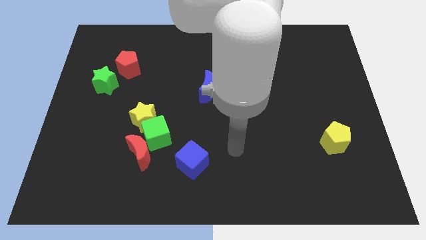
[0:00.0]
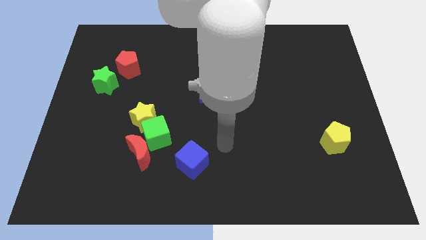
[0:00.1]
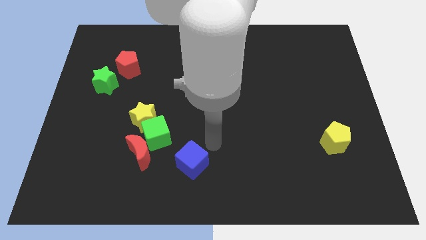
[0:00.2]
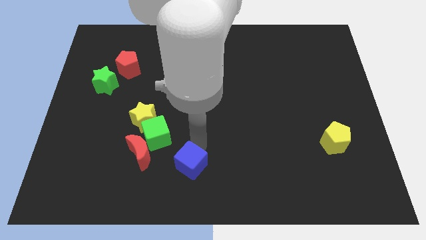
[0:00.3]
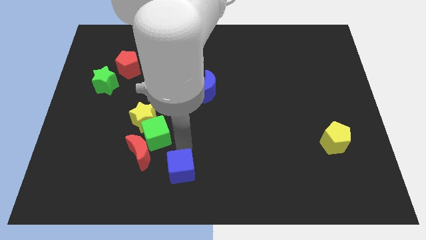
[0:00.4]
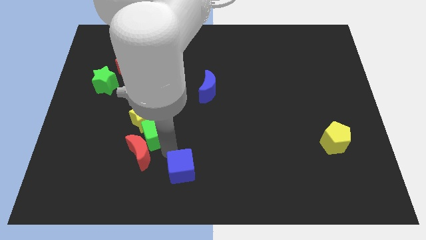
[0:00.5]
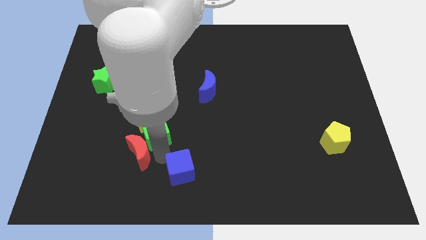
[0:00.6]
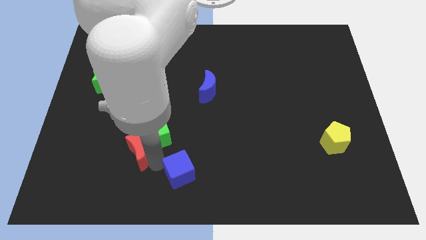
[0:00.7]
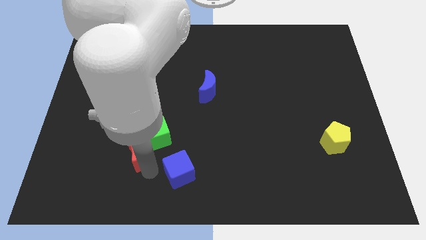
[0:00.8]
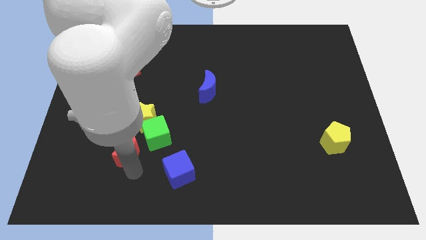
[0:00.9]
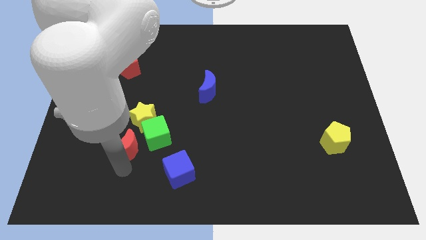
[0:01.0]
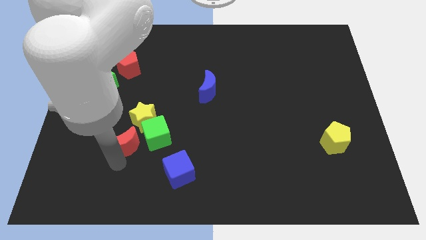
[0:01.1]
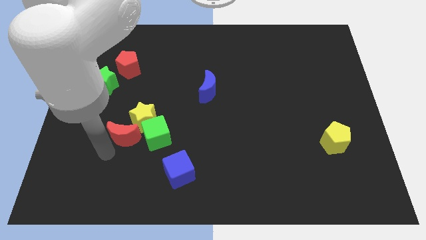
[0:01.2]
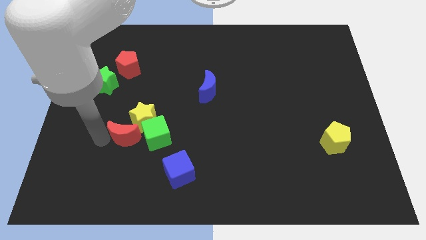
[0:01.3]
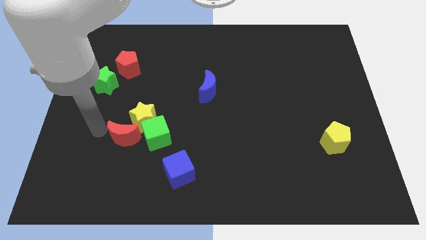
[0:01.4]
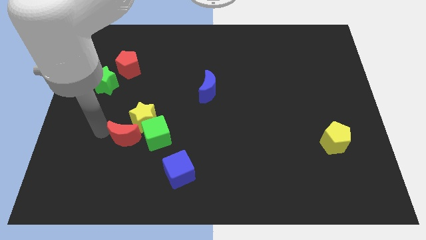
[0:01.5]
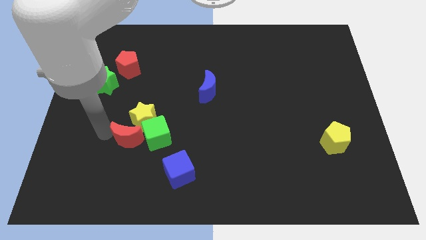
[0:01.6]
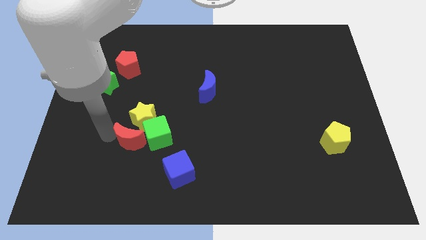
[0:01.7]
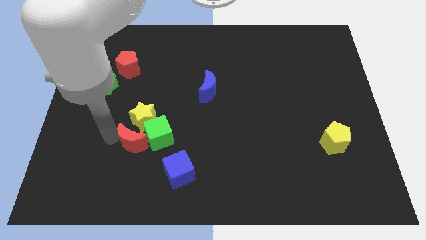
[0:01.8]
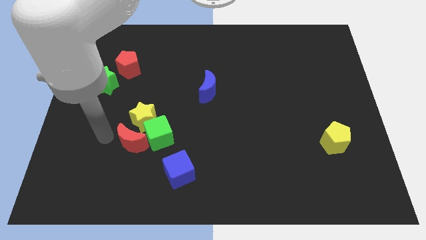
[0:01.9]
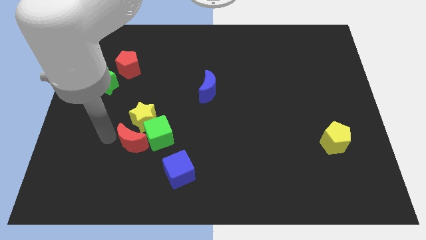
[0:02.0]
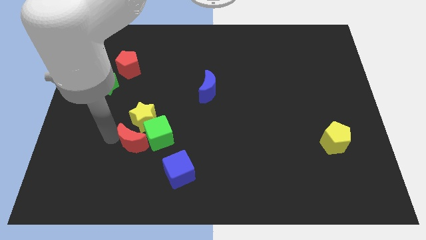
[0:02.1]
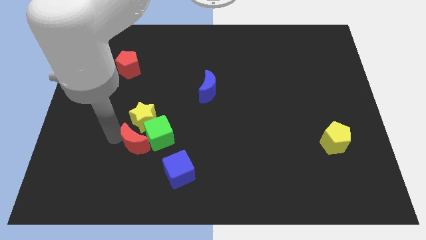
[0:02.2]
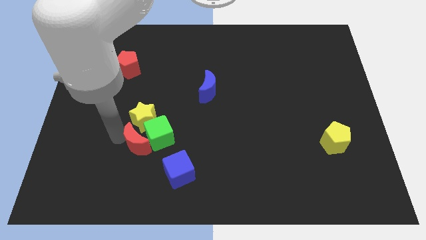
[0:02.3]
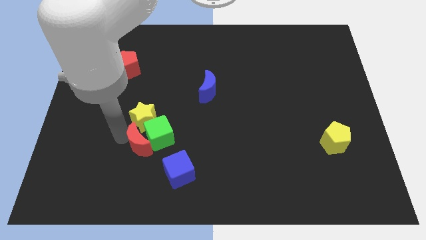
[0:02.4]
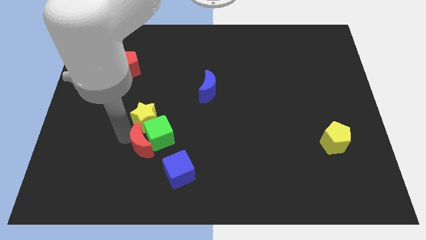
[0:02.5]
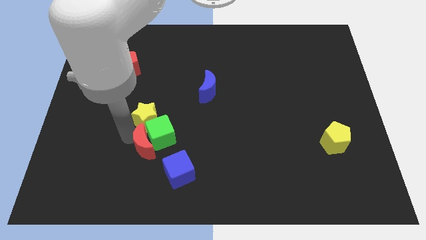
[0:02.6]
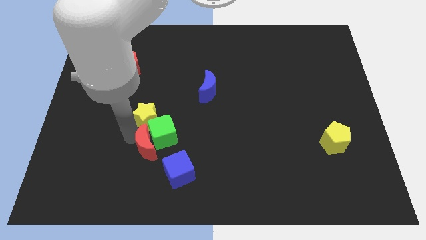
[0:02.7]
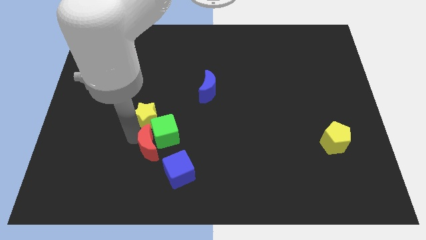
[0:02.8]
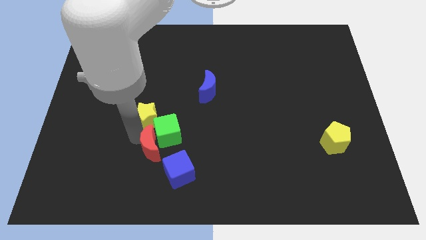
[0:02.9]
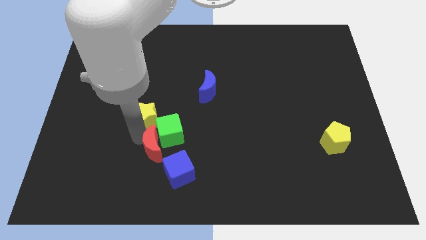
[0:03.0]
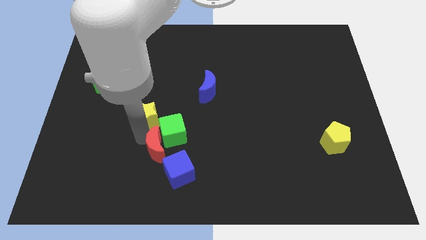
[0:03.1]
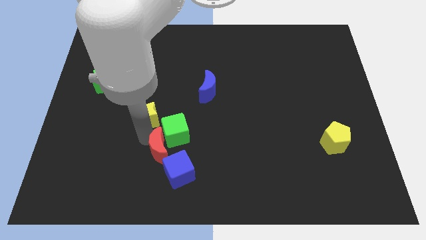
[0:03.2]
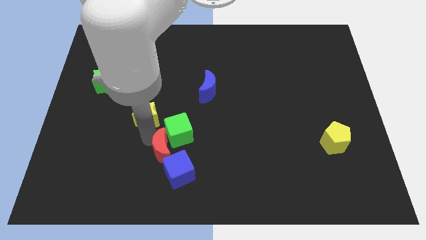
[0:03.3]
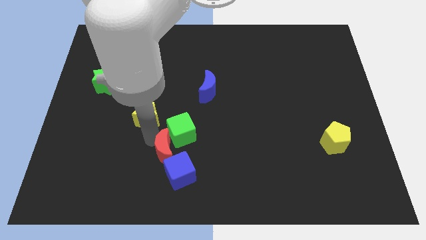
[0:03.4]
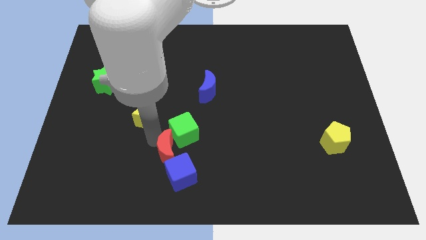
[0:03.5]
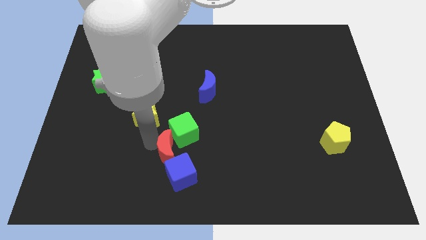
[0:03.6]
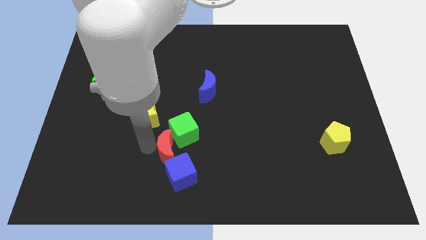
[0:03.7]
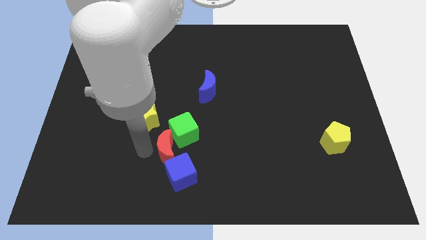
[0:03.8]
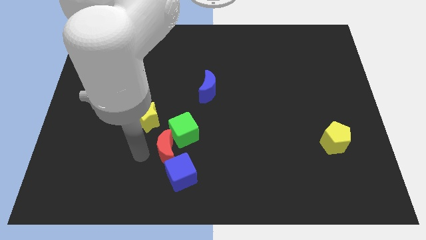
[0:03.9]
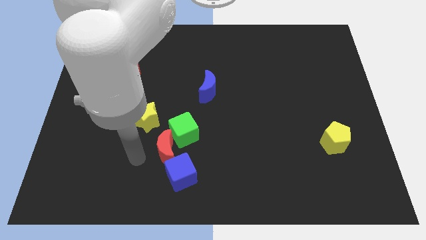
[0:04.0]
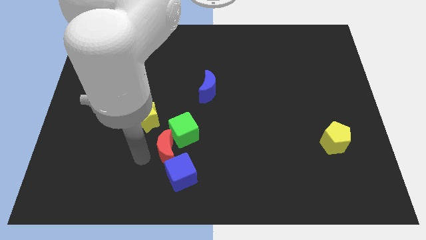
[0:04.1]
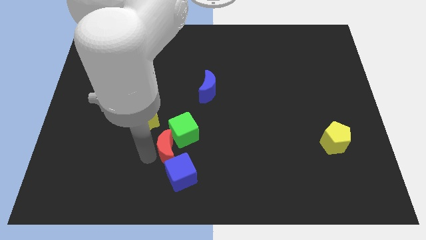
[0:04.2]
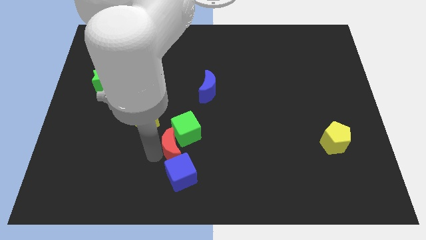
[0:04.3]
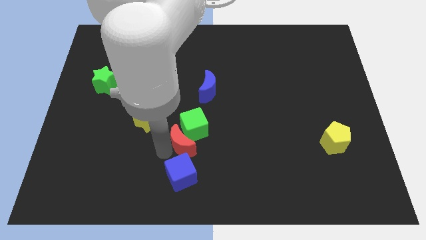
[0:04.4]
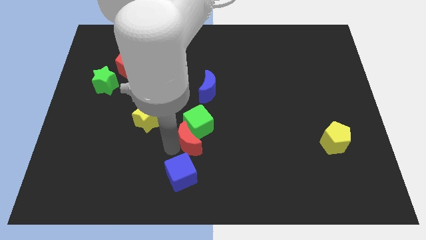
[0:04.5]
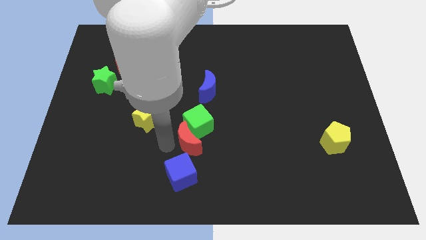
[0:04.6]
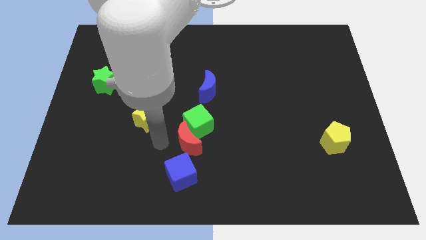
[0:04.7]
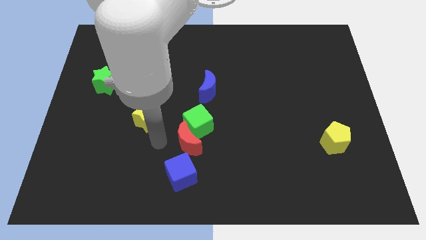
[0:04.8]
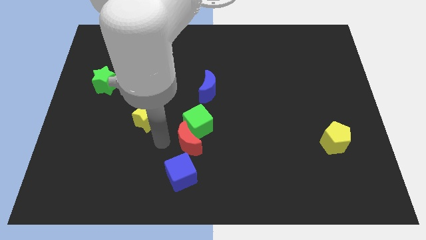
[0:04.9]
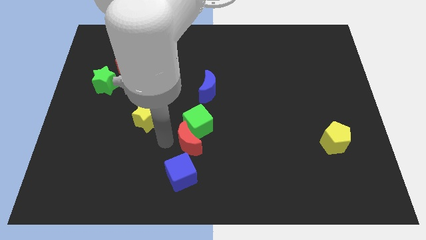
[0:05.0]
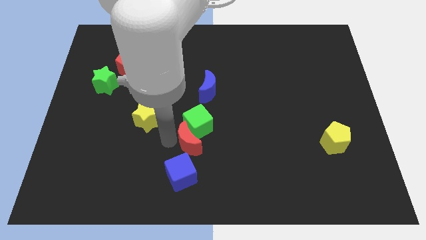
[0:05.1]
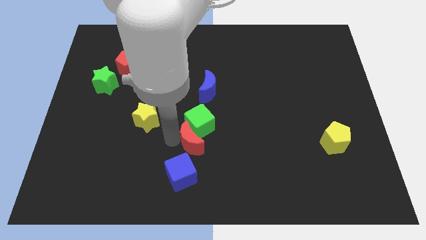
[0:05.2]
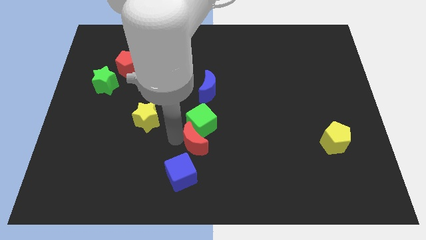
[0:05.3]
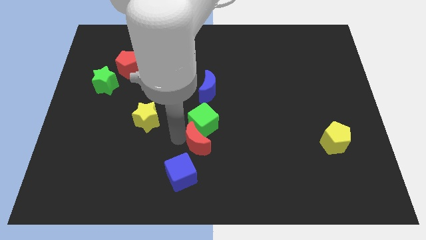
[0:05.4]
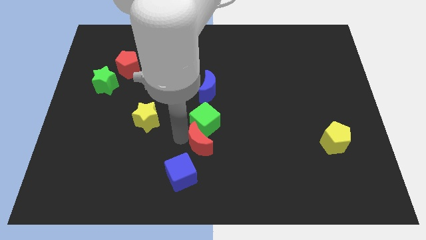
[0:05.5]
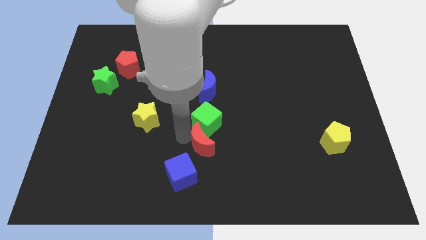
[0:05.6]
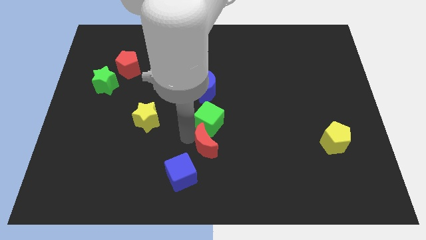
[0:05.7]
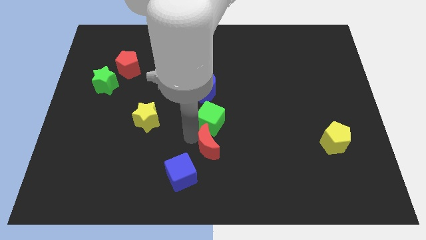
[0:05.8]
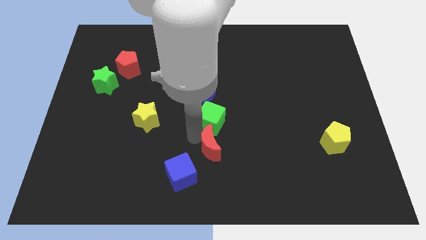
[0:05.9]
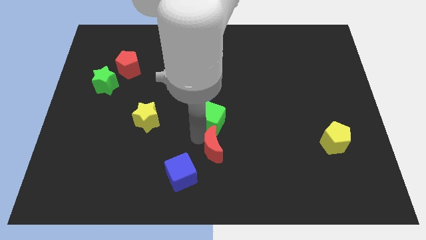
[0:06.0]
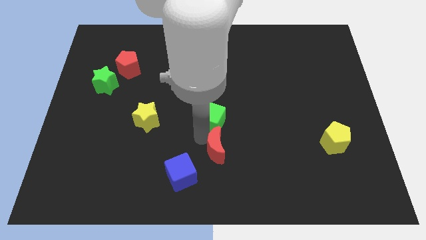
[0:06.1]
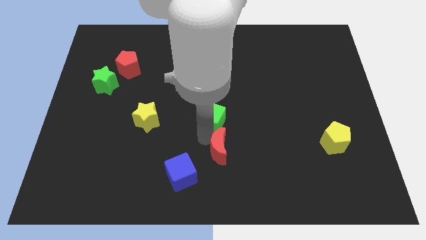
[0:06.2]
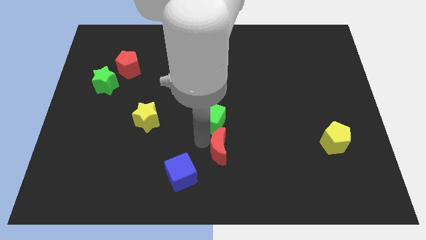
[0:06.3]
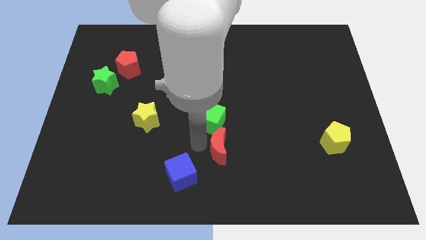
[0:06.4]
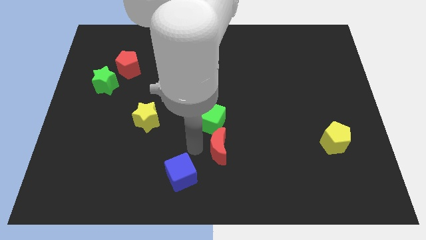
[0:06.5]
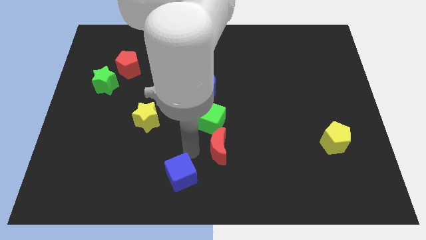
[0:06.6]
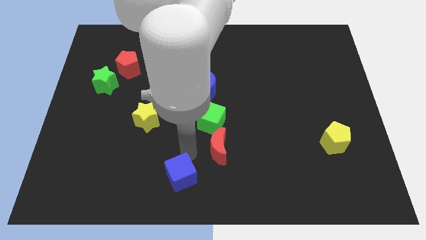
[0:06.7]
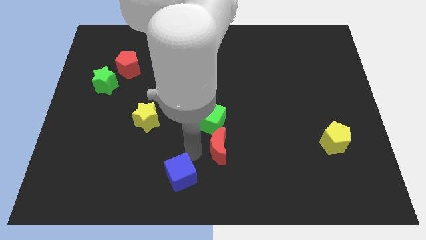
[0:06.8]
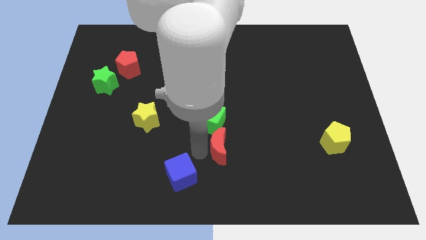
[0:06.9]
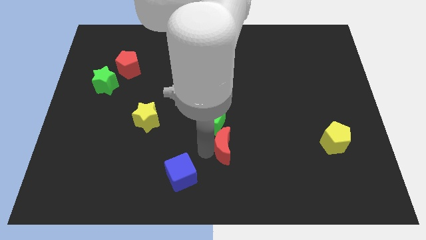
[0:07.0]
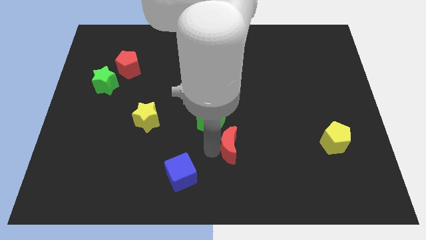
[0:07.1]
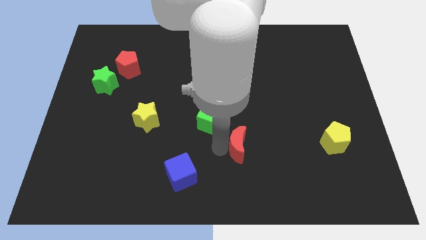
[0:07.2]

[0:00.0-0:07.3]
move the red moon right

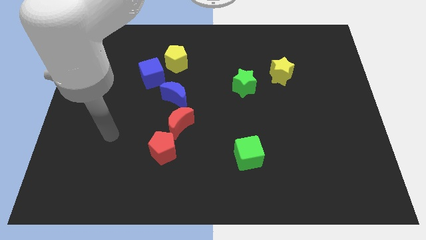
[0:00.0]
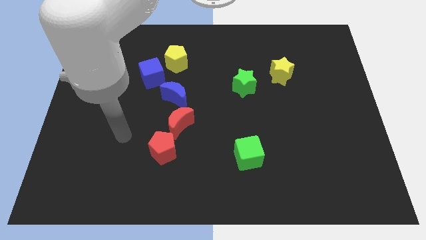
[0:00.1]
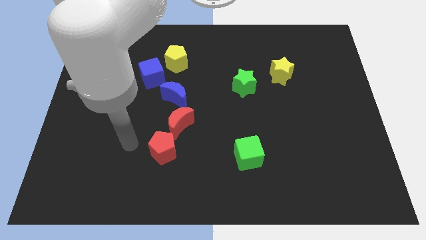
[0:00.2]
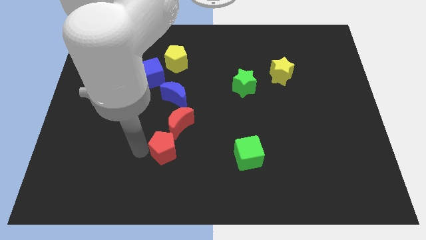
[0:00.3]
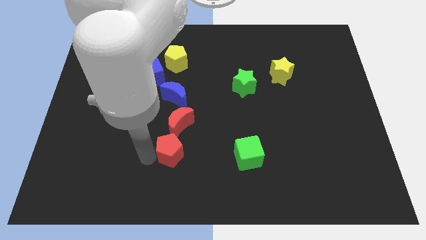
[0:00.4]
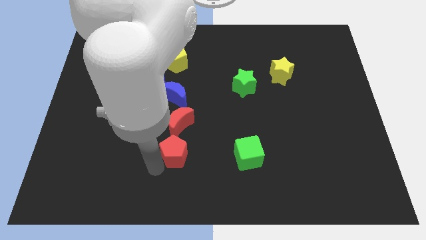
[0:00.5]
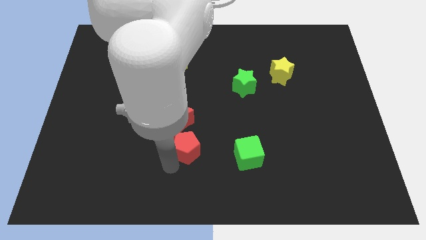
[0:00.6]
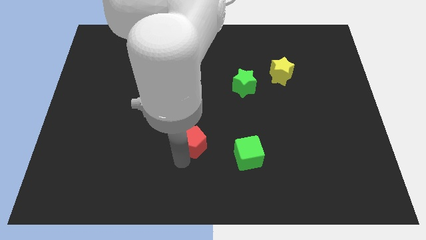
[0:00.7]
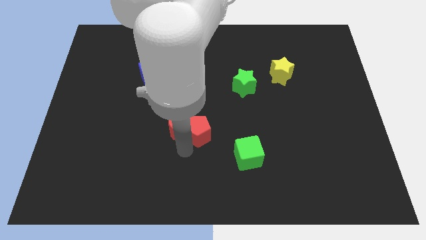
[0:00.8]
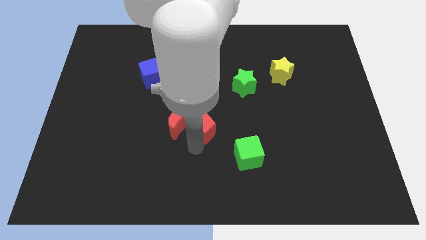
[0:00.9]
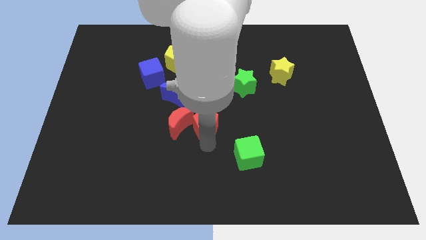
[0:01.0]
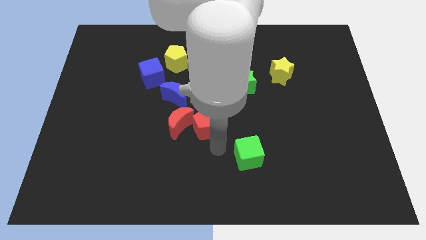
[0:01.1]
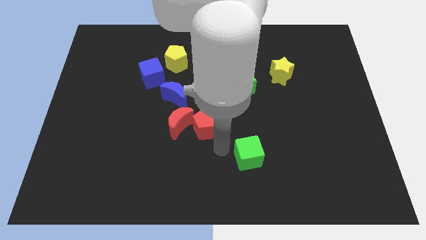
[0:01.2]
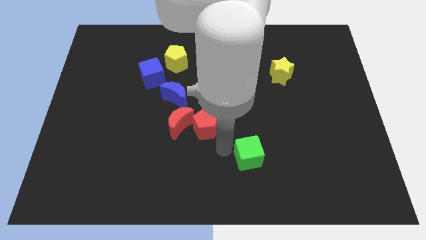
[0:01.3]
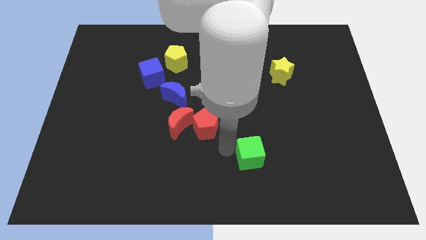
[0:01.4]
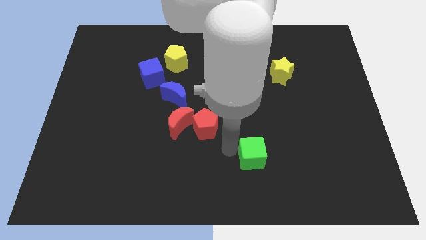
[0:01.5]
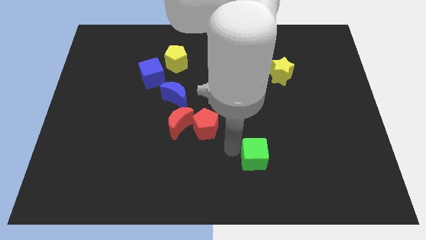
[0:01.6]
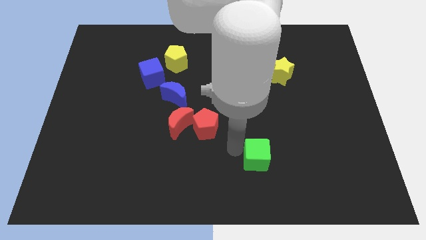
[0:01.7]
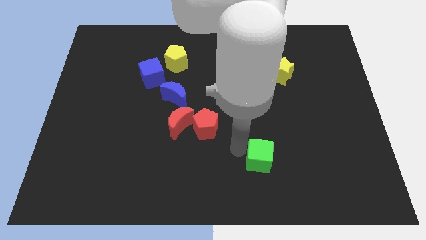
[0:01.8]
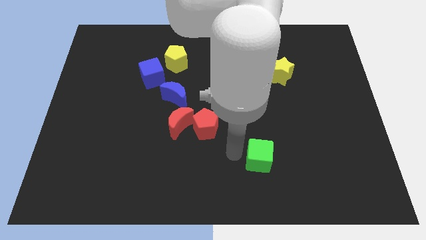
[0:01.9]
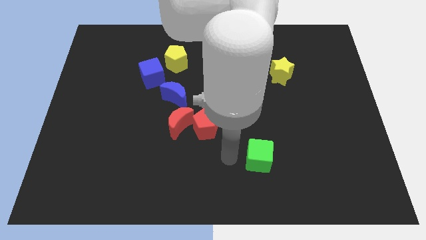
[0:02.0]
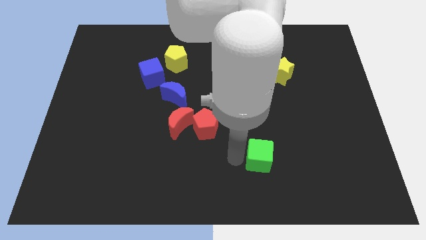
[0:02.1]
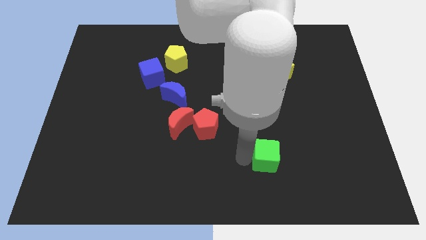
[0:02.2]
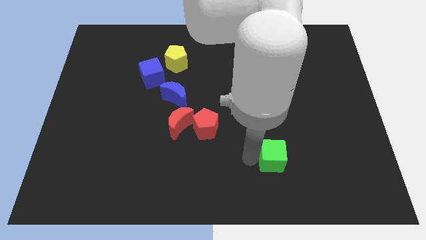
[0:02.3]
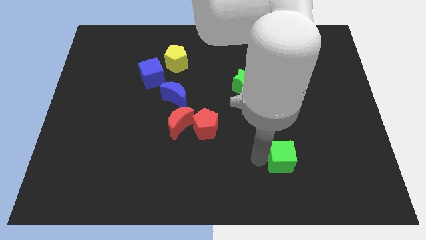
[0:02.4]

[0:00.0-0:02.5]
slightly push the green cube to the right
